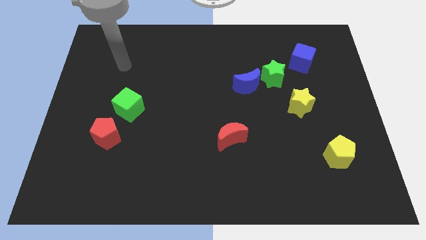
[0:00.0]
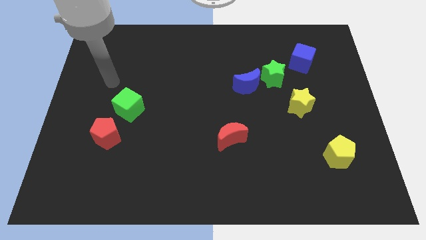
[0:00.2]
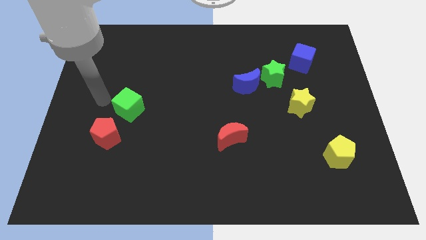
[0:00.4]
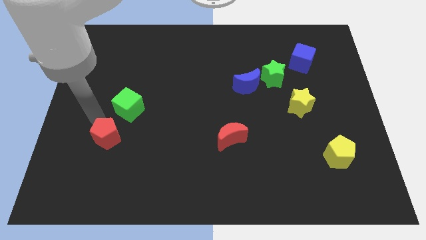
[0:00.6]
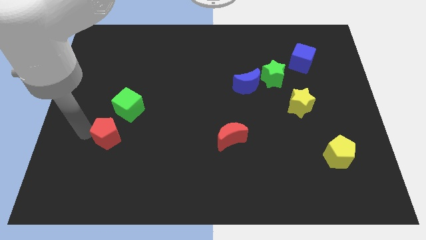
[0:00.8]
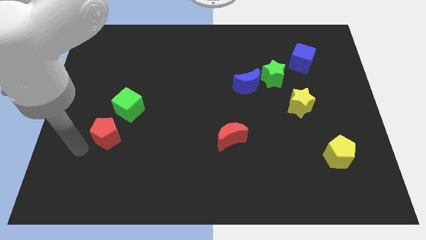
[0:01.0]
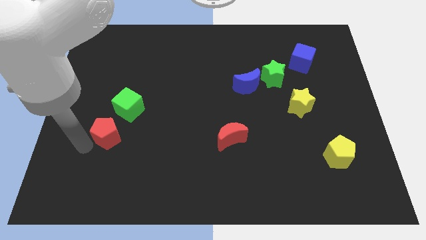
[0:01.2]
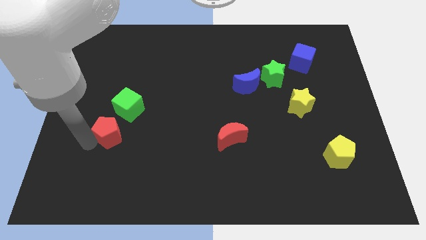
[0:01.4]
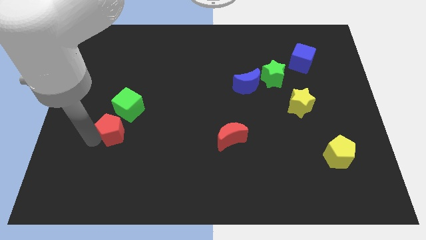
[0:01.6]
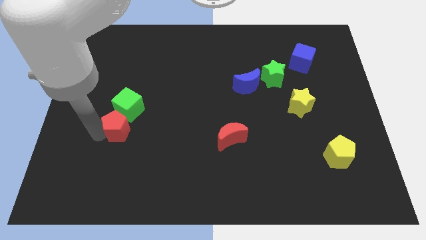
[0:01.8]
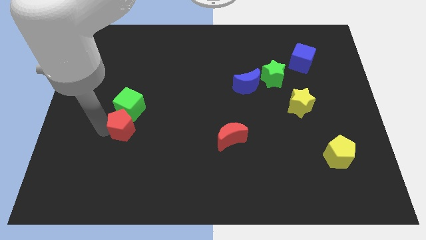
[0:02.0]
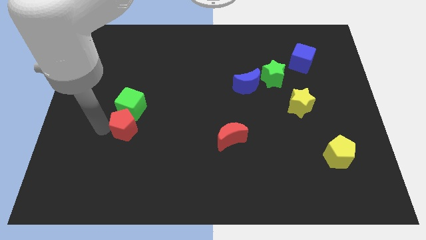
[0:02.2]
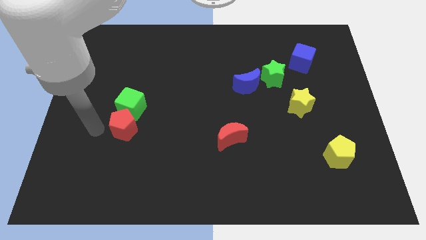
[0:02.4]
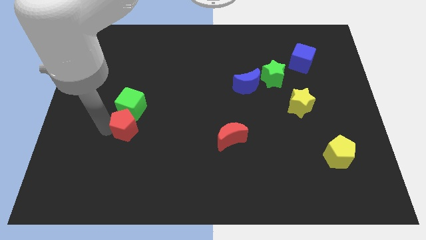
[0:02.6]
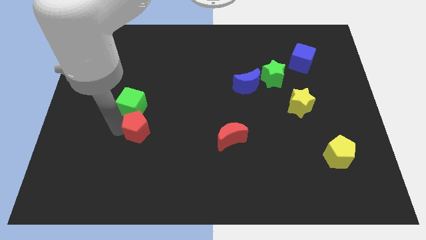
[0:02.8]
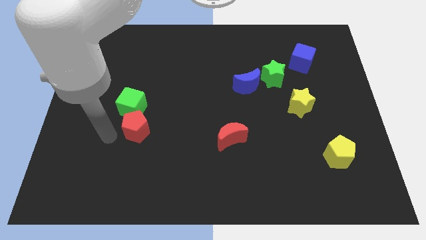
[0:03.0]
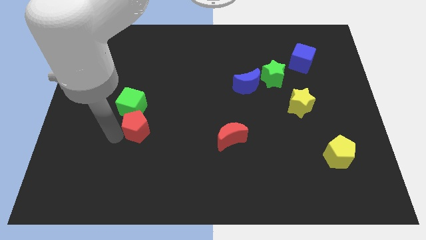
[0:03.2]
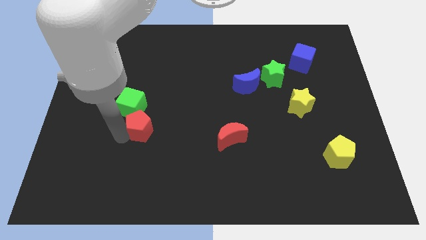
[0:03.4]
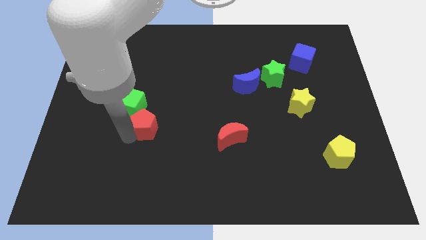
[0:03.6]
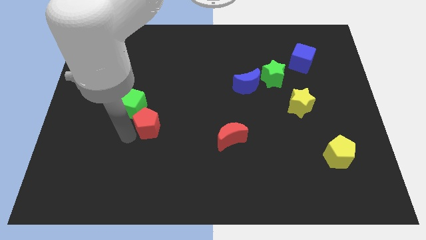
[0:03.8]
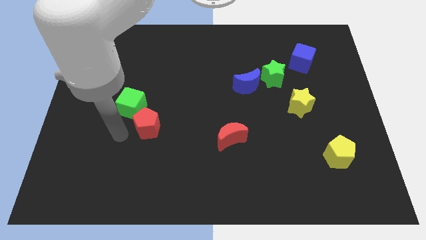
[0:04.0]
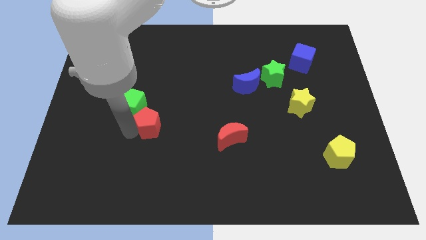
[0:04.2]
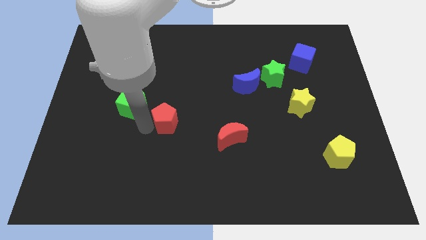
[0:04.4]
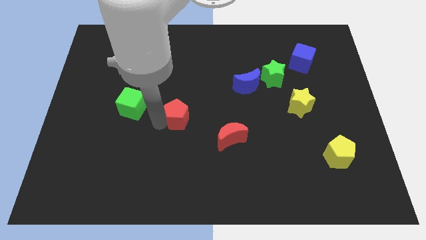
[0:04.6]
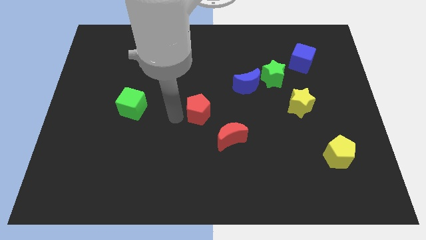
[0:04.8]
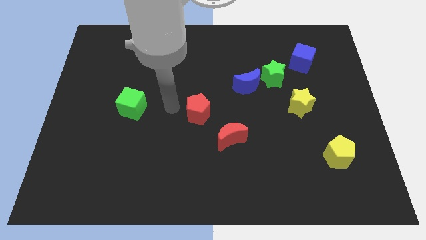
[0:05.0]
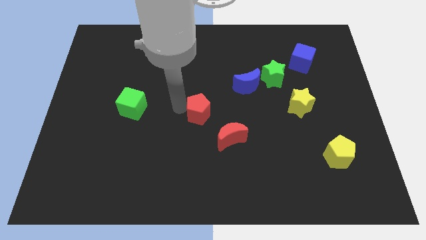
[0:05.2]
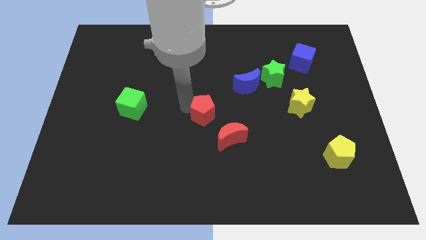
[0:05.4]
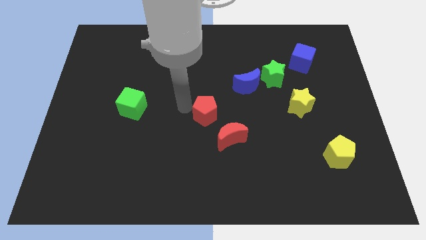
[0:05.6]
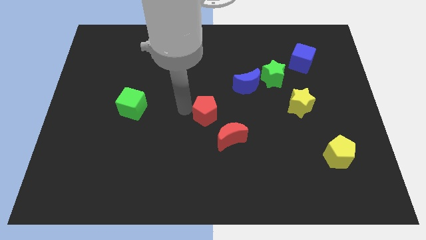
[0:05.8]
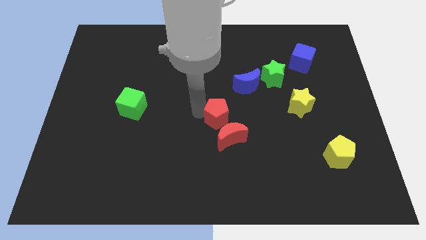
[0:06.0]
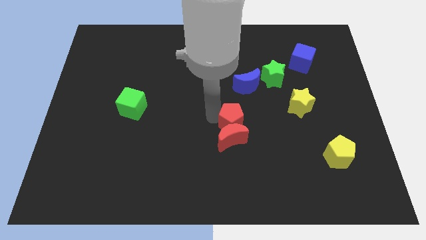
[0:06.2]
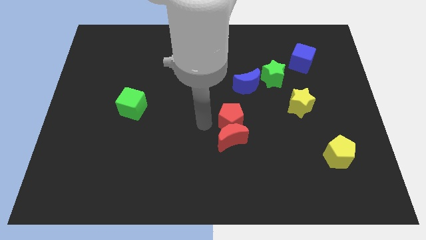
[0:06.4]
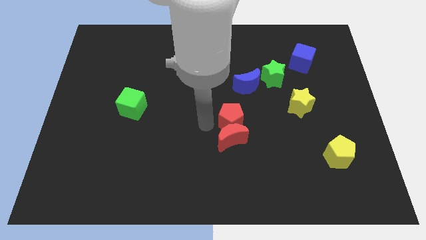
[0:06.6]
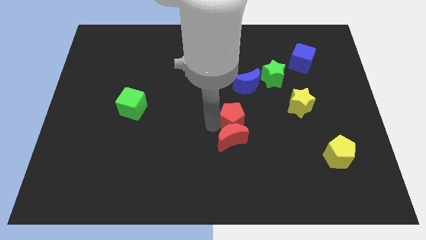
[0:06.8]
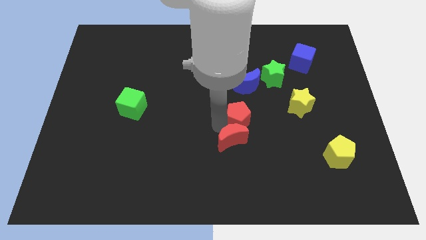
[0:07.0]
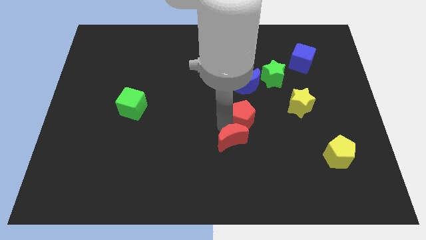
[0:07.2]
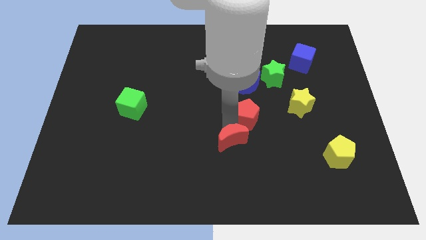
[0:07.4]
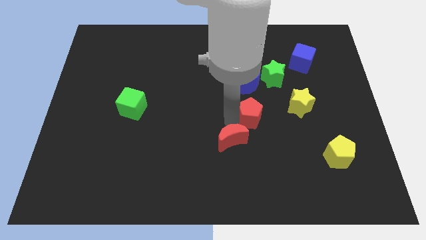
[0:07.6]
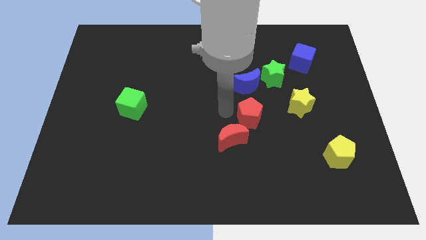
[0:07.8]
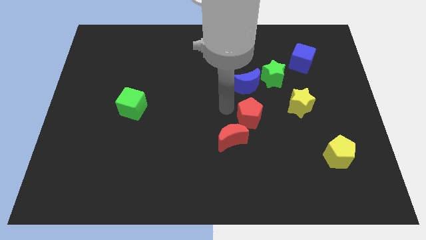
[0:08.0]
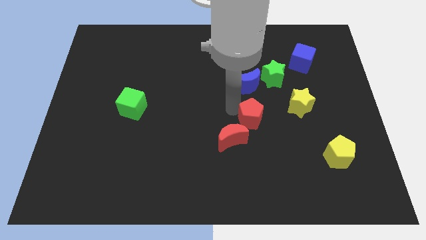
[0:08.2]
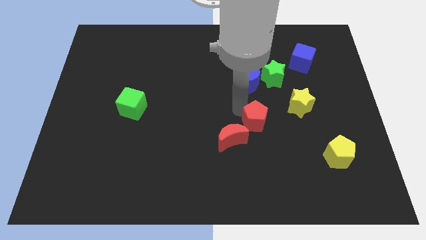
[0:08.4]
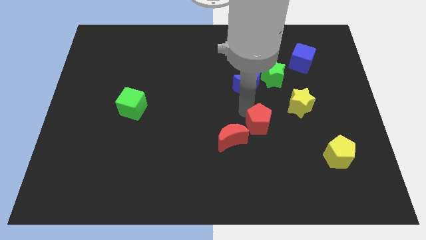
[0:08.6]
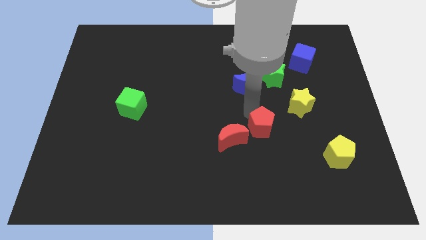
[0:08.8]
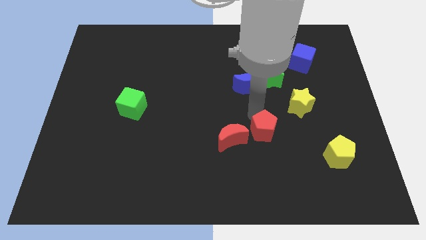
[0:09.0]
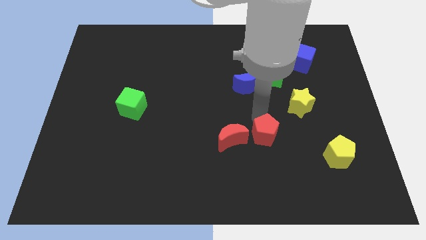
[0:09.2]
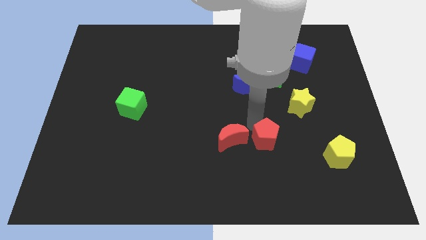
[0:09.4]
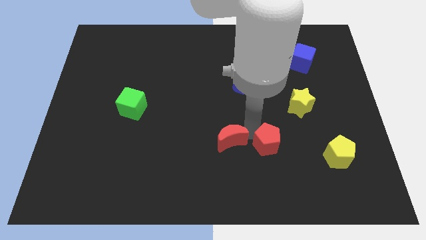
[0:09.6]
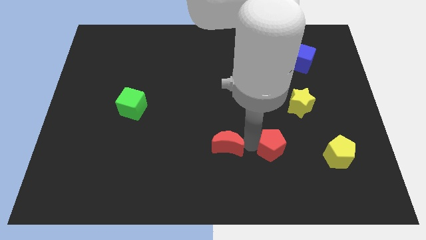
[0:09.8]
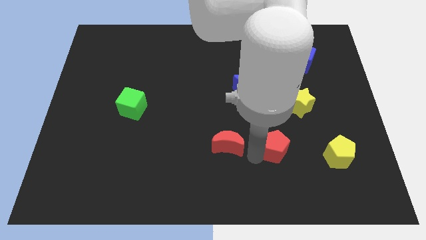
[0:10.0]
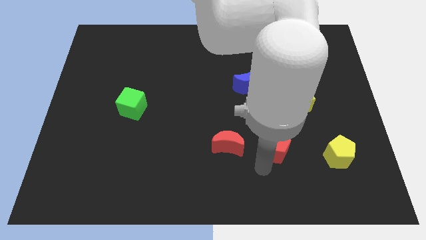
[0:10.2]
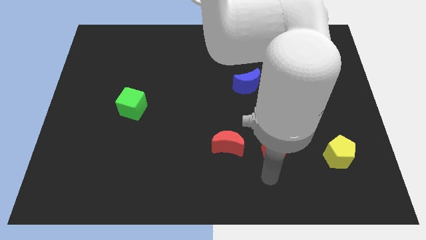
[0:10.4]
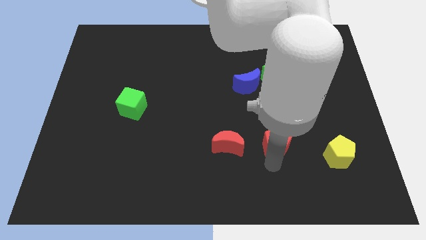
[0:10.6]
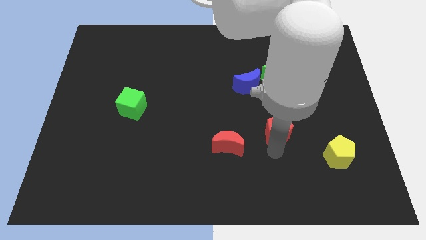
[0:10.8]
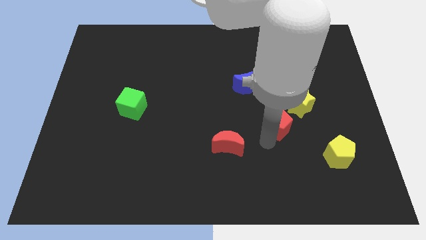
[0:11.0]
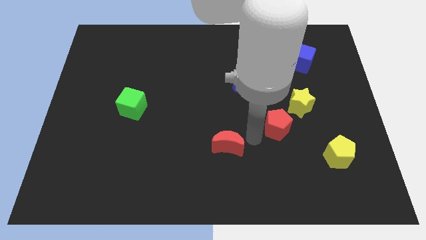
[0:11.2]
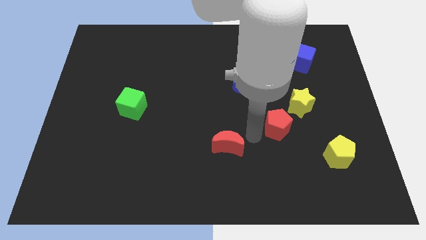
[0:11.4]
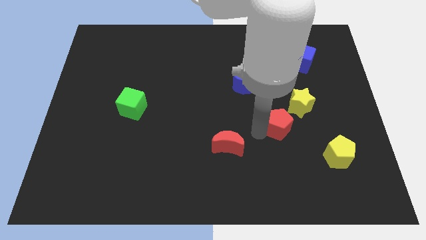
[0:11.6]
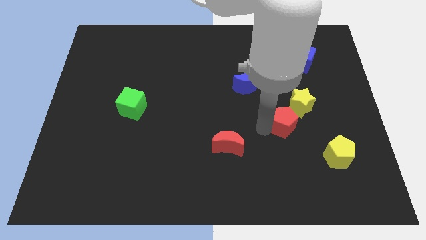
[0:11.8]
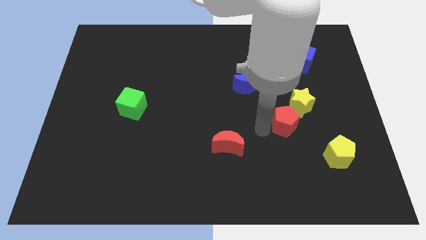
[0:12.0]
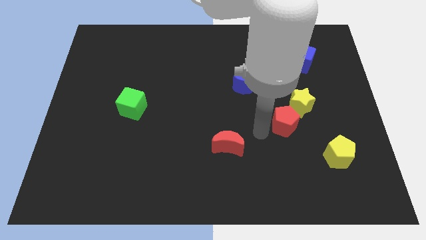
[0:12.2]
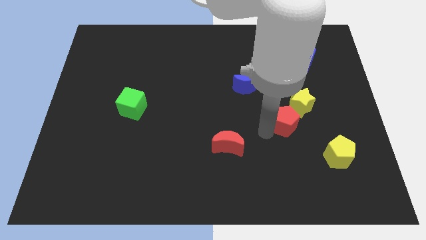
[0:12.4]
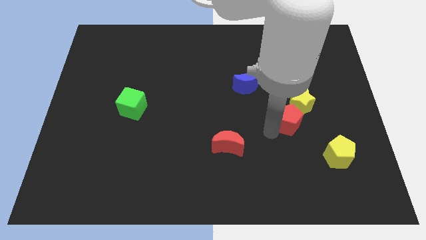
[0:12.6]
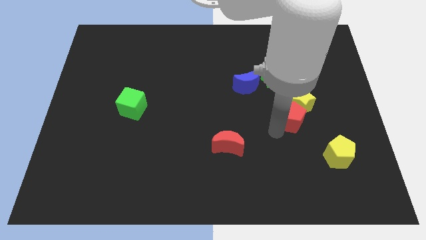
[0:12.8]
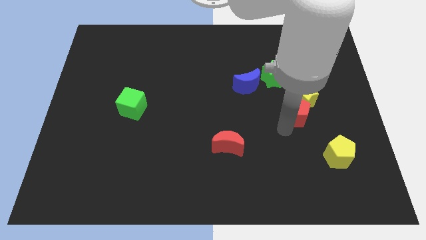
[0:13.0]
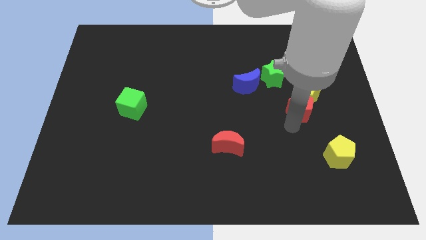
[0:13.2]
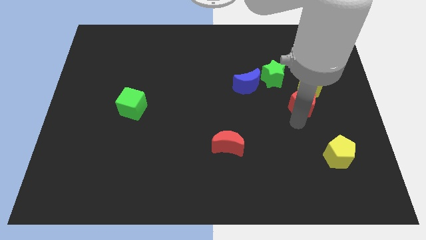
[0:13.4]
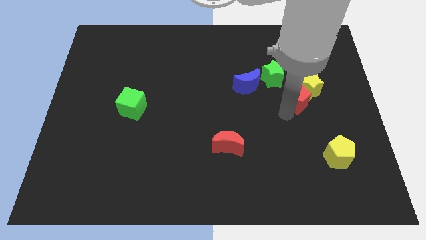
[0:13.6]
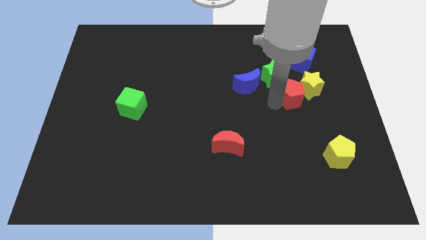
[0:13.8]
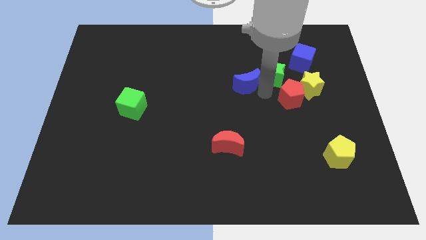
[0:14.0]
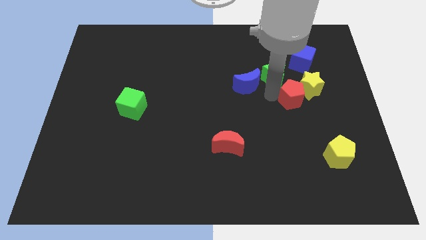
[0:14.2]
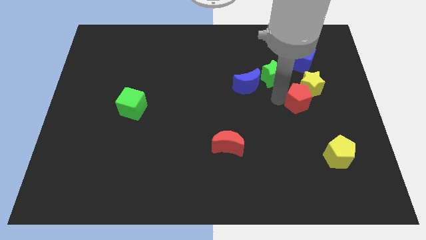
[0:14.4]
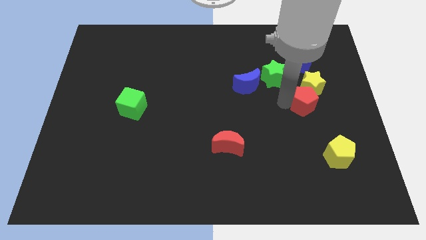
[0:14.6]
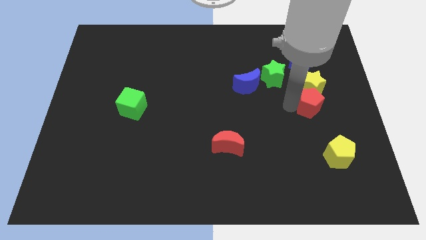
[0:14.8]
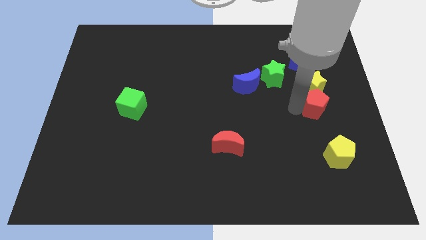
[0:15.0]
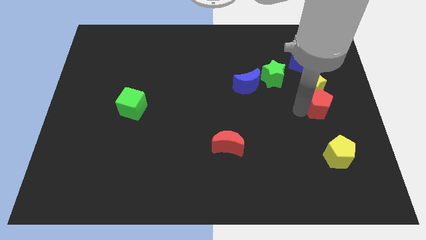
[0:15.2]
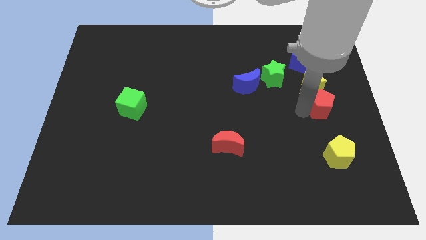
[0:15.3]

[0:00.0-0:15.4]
move the red pentagon to the right side of the board

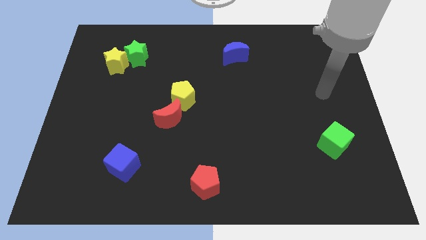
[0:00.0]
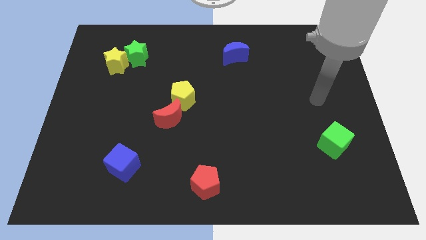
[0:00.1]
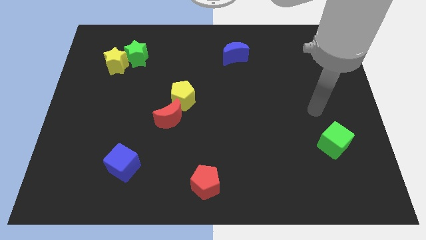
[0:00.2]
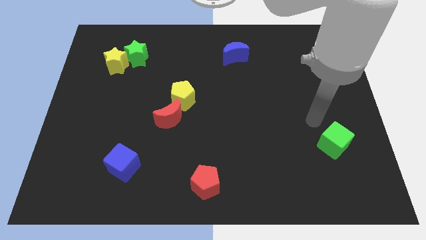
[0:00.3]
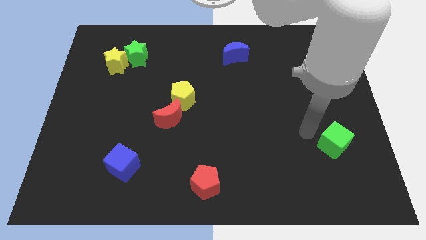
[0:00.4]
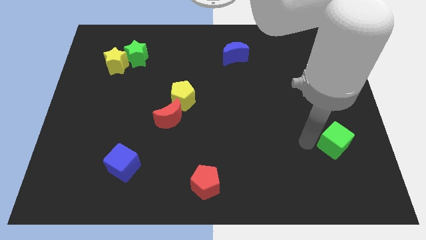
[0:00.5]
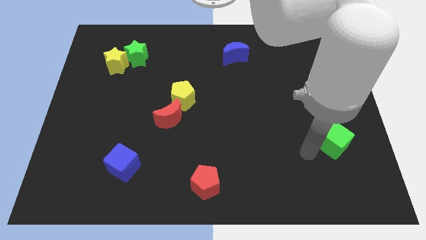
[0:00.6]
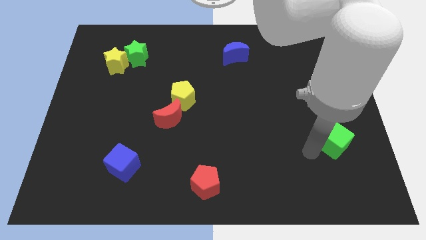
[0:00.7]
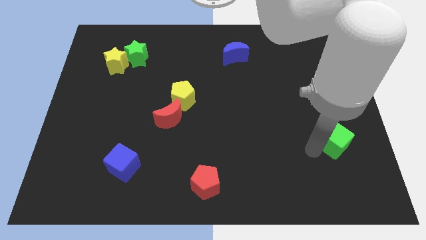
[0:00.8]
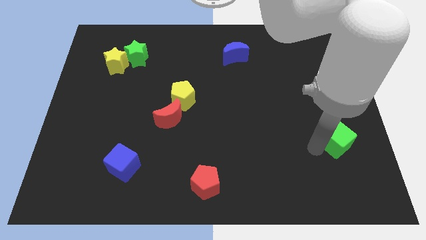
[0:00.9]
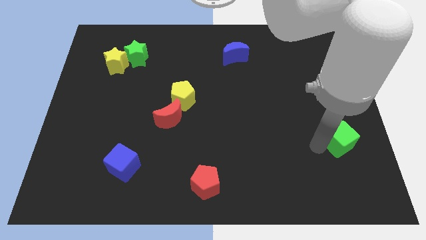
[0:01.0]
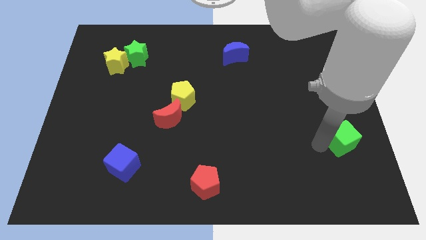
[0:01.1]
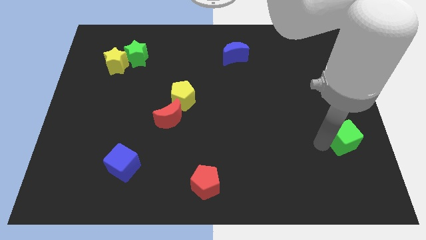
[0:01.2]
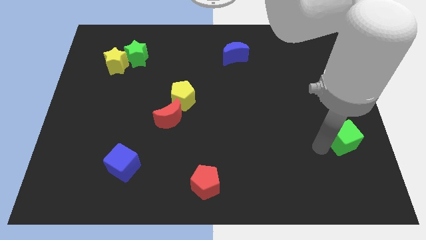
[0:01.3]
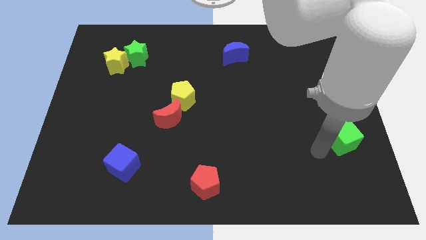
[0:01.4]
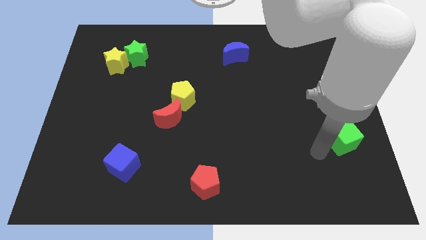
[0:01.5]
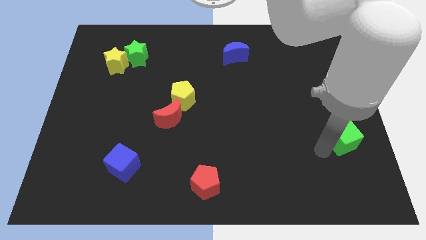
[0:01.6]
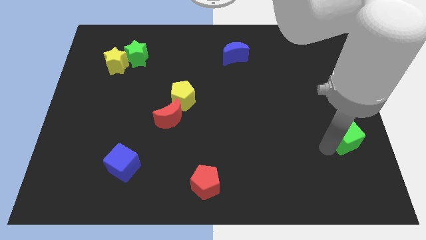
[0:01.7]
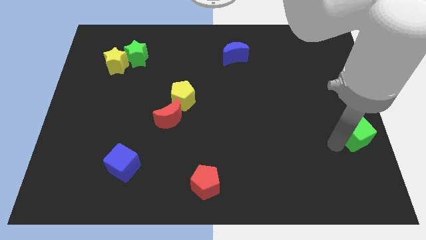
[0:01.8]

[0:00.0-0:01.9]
put the green cube to the right side of the board
